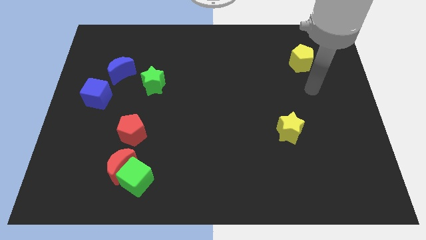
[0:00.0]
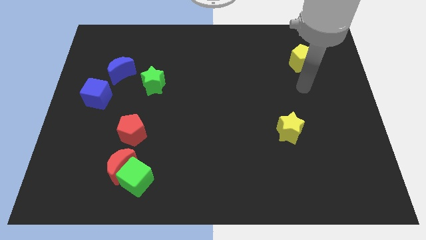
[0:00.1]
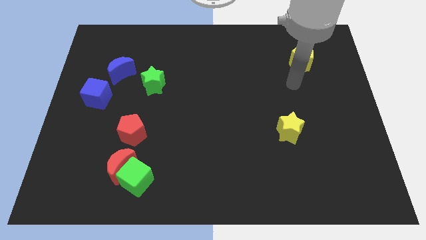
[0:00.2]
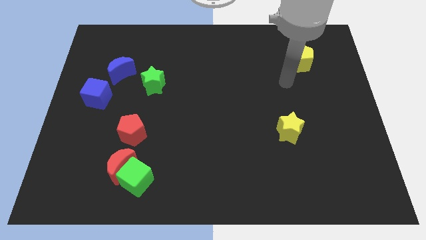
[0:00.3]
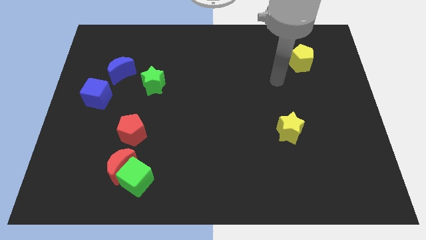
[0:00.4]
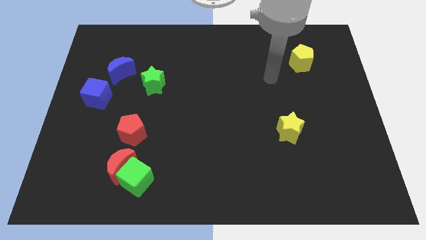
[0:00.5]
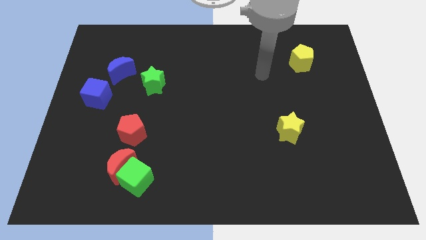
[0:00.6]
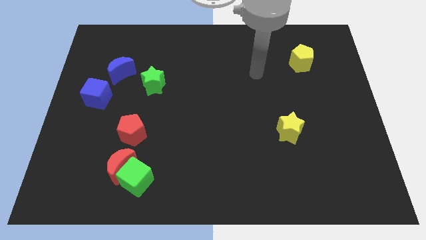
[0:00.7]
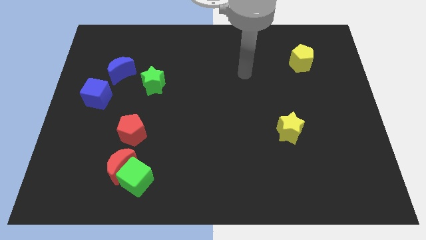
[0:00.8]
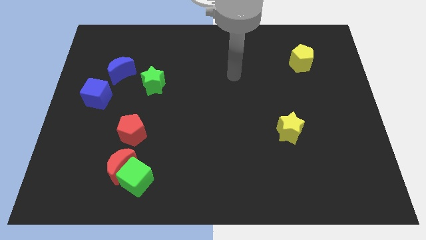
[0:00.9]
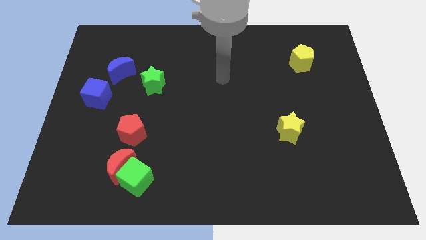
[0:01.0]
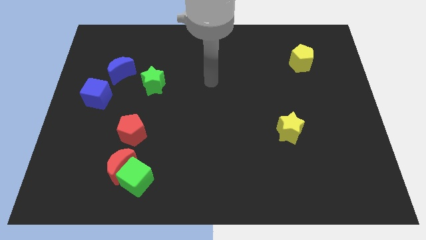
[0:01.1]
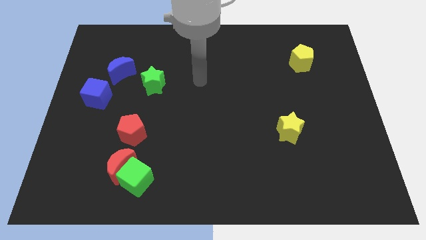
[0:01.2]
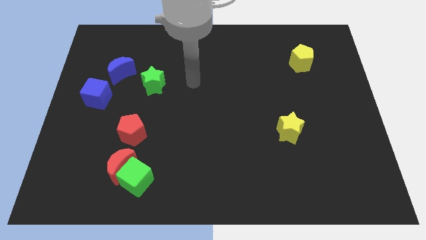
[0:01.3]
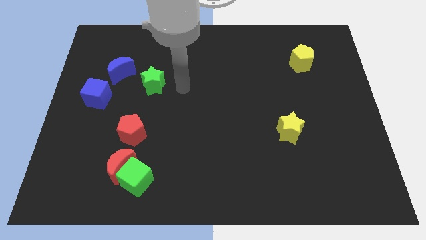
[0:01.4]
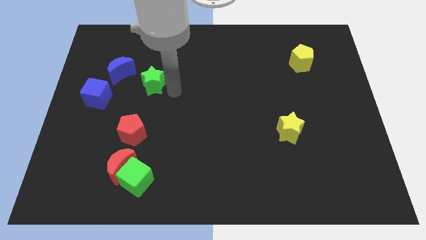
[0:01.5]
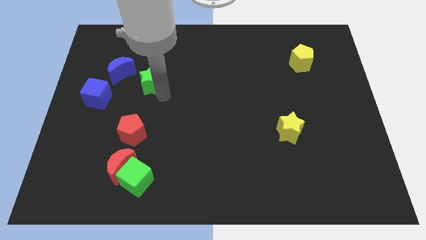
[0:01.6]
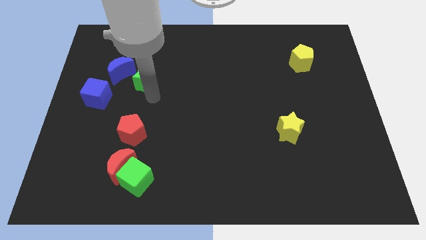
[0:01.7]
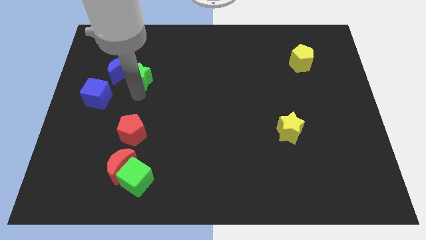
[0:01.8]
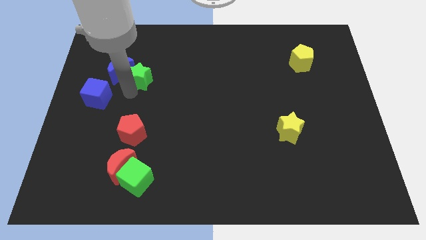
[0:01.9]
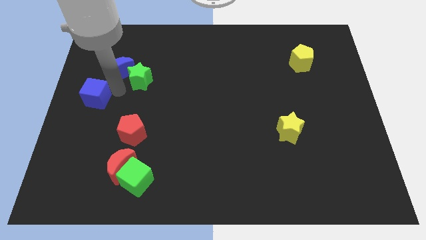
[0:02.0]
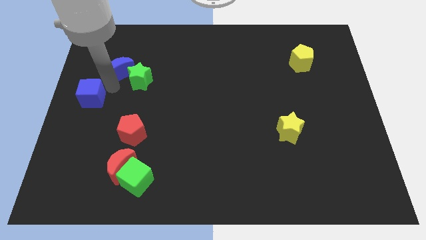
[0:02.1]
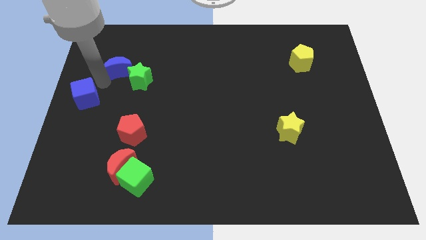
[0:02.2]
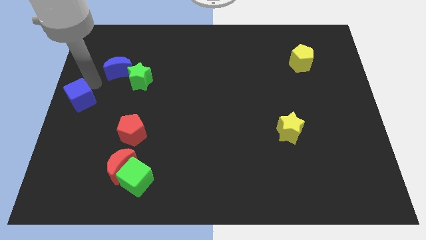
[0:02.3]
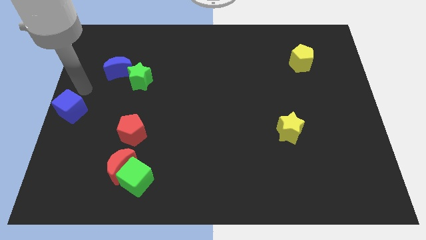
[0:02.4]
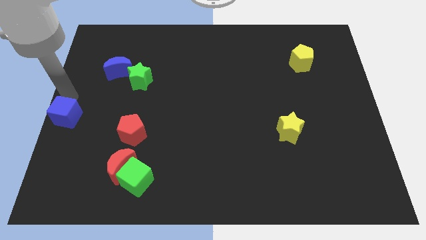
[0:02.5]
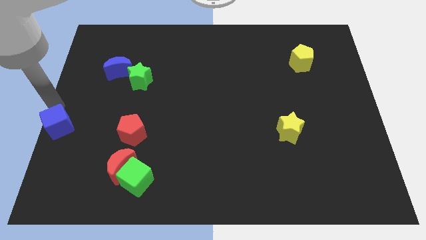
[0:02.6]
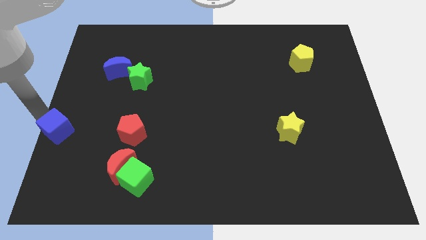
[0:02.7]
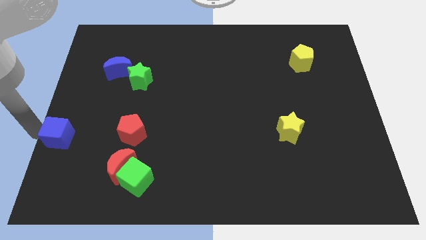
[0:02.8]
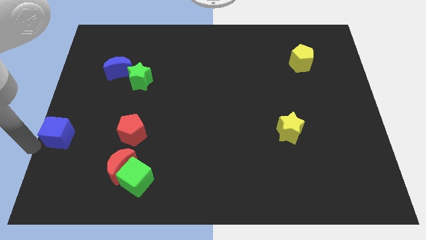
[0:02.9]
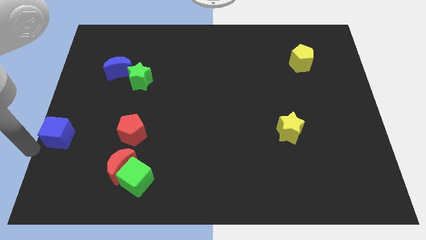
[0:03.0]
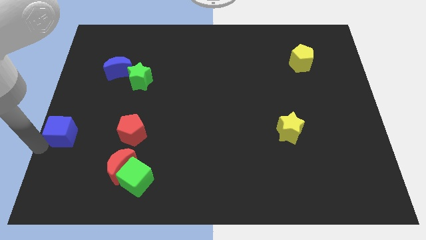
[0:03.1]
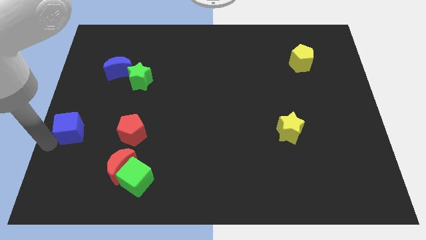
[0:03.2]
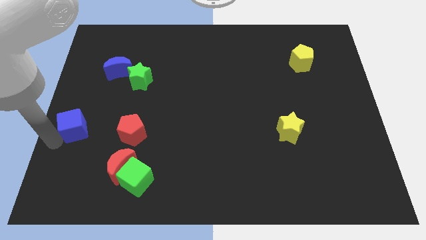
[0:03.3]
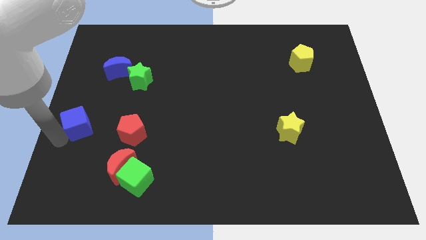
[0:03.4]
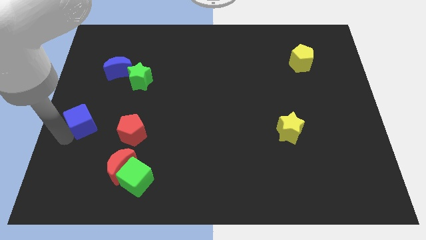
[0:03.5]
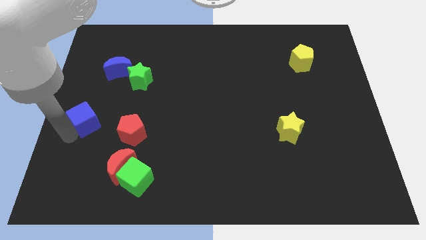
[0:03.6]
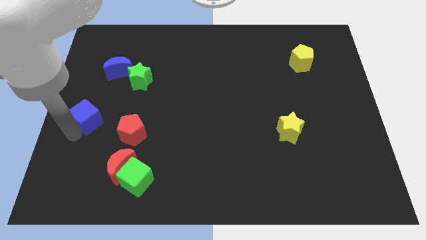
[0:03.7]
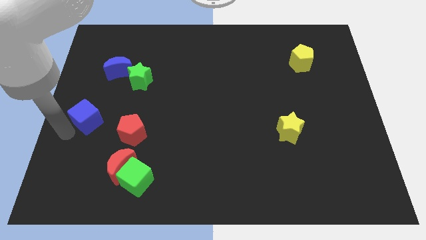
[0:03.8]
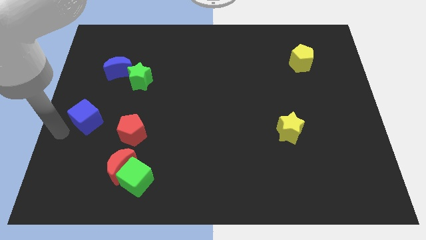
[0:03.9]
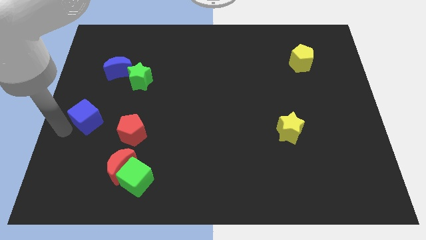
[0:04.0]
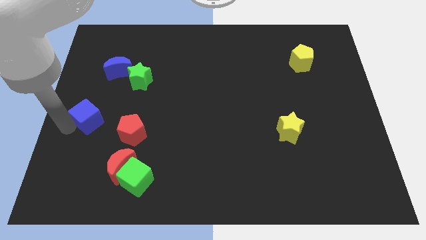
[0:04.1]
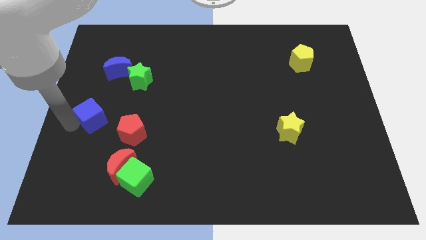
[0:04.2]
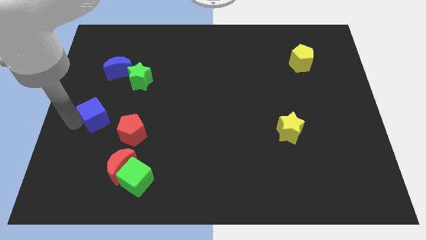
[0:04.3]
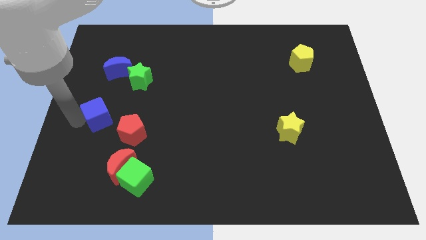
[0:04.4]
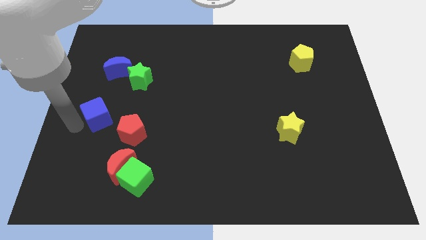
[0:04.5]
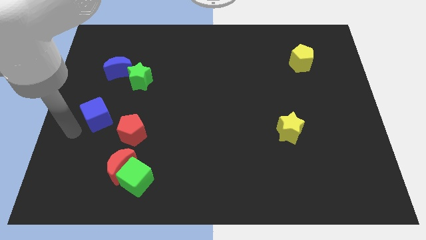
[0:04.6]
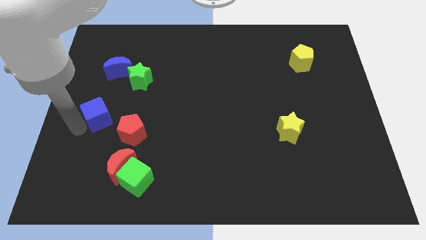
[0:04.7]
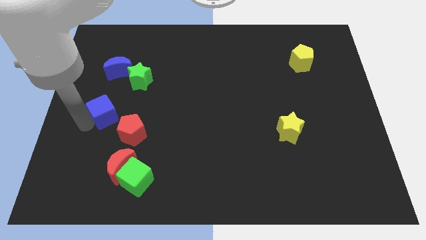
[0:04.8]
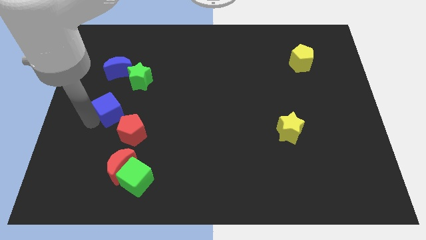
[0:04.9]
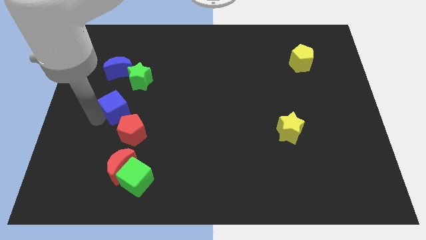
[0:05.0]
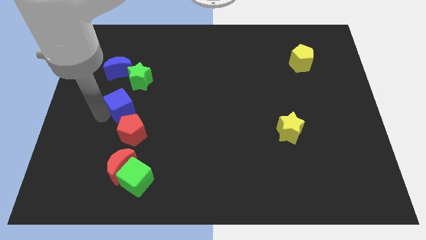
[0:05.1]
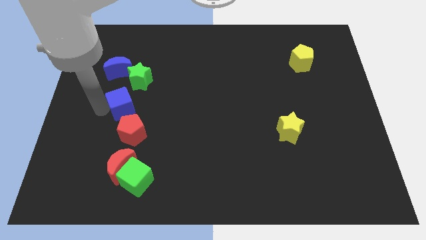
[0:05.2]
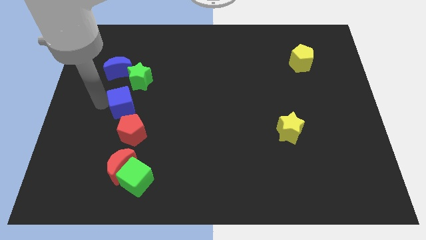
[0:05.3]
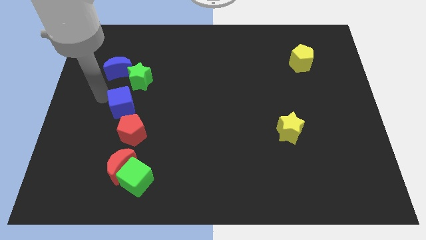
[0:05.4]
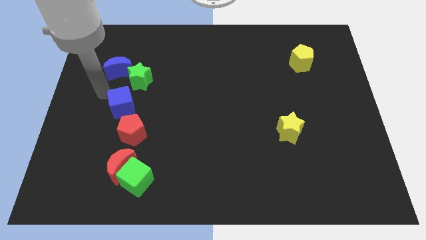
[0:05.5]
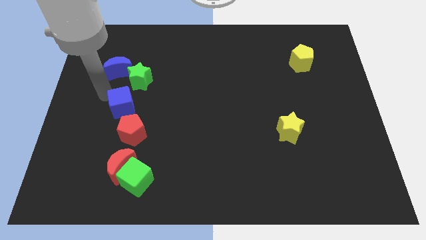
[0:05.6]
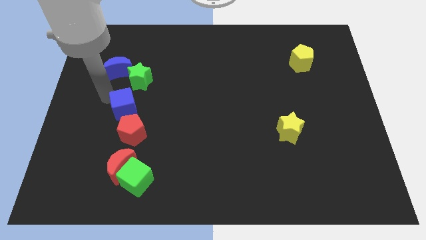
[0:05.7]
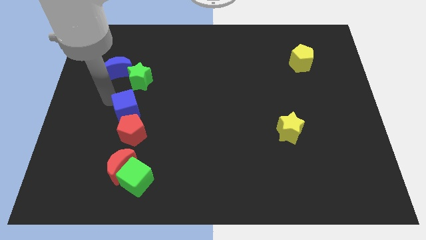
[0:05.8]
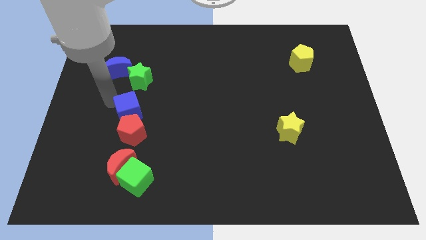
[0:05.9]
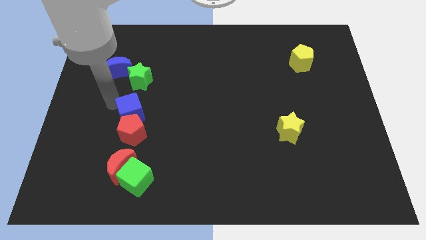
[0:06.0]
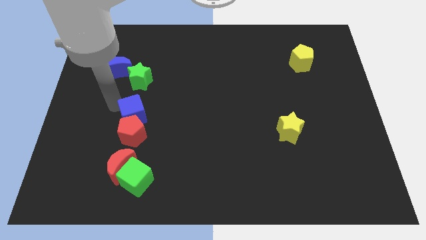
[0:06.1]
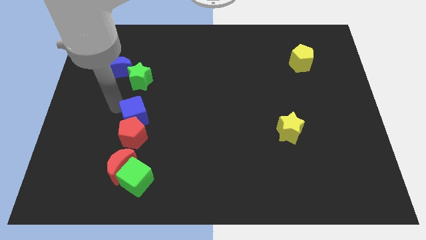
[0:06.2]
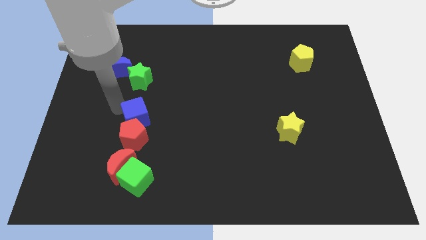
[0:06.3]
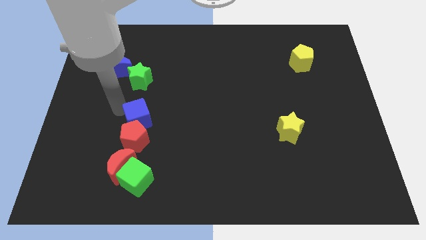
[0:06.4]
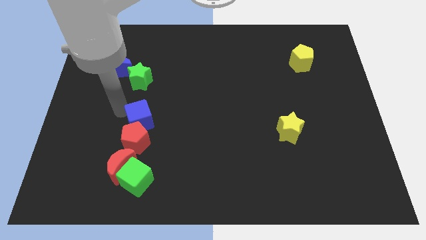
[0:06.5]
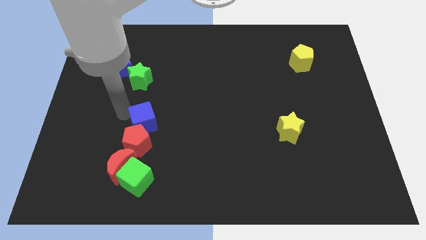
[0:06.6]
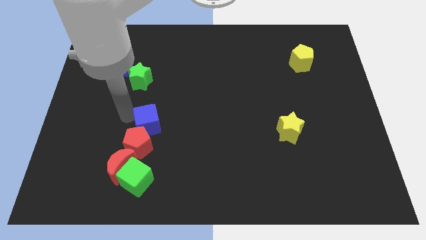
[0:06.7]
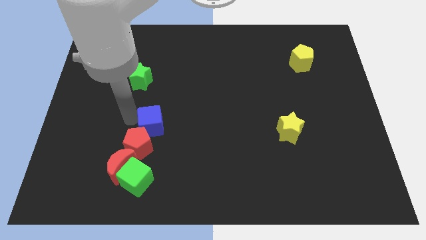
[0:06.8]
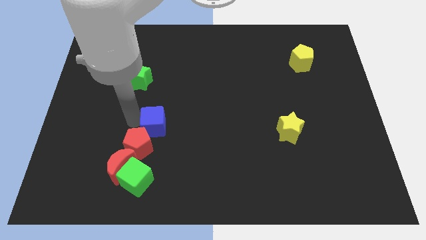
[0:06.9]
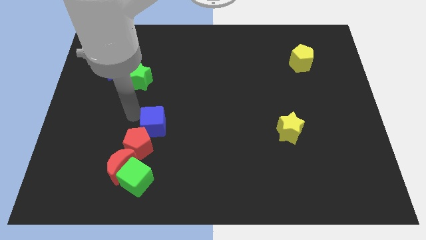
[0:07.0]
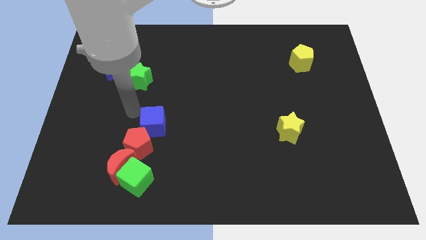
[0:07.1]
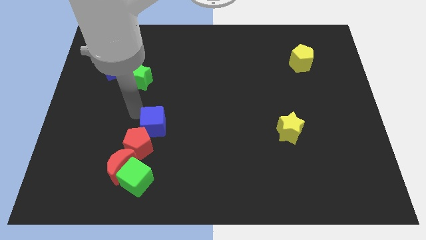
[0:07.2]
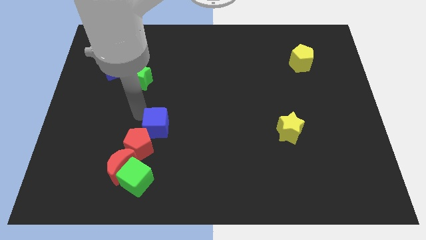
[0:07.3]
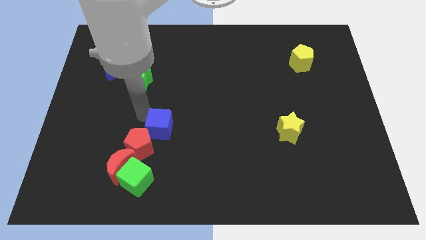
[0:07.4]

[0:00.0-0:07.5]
move the blue cube just right of the red pentagon

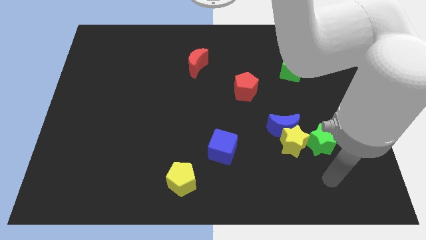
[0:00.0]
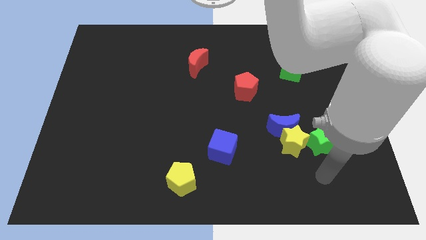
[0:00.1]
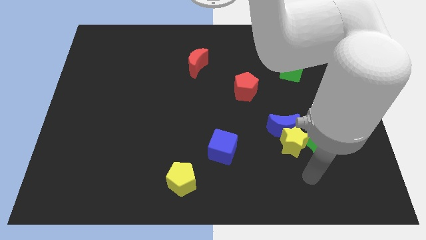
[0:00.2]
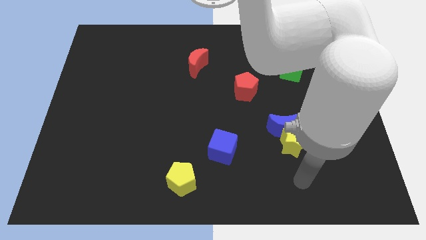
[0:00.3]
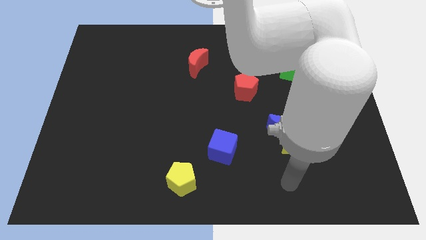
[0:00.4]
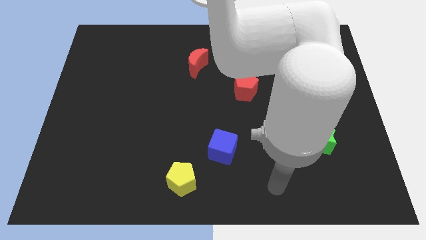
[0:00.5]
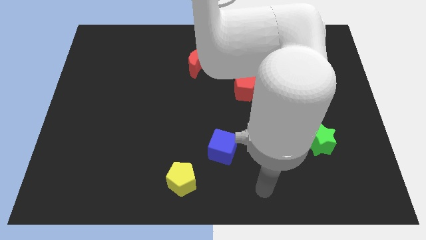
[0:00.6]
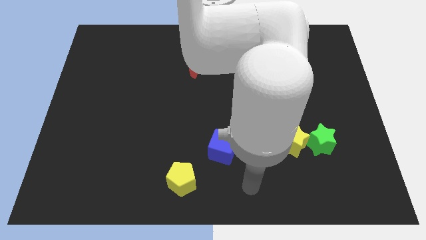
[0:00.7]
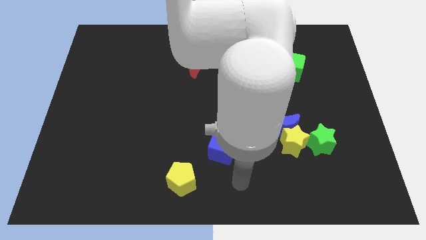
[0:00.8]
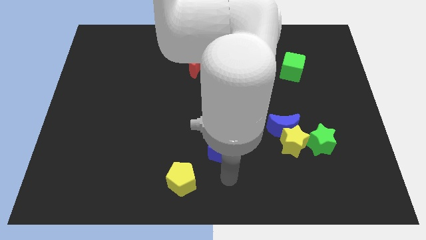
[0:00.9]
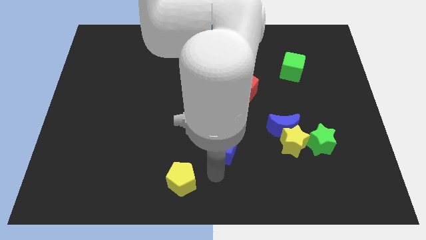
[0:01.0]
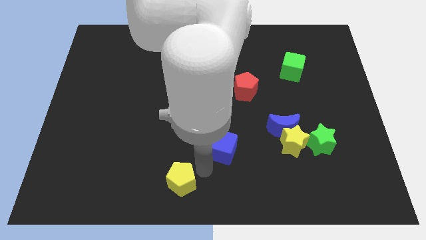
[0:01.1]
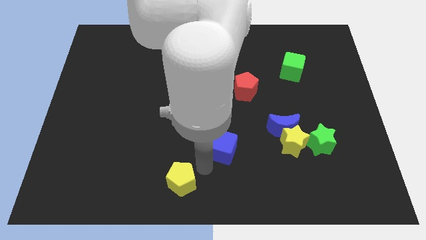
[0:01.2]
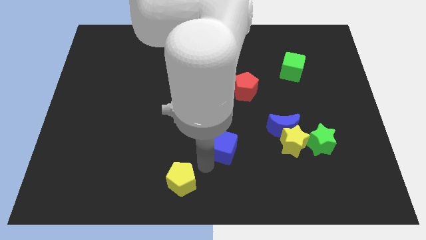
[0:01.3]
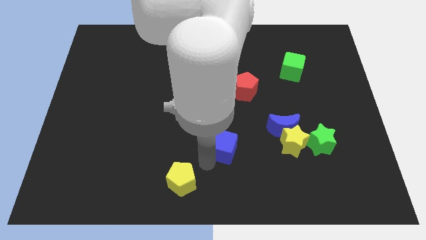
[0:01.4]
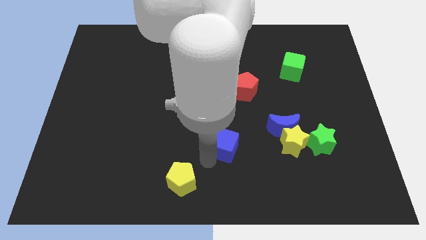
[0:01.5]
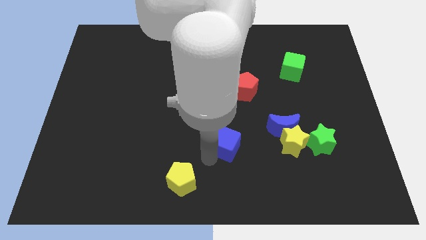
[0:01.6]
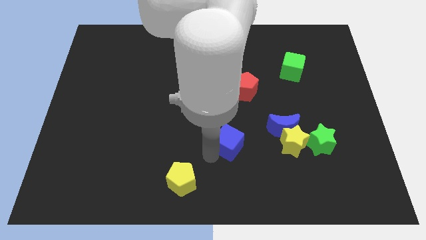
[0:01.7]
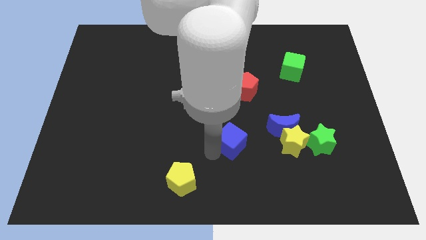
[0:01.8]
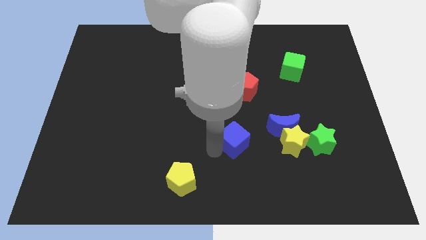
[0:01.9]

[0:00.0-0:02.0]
push the blue cube to the bottom side of the red pentagon
